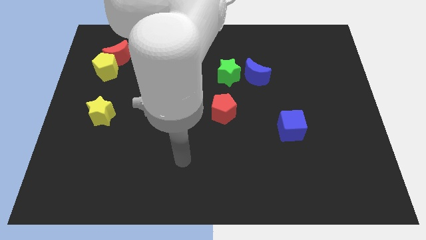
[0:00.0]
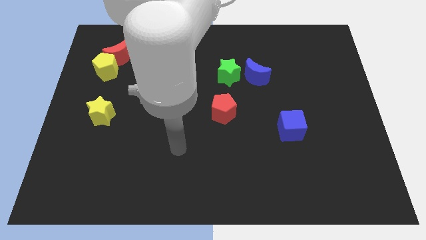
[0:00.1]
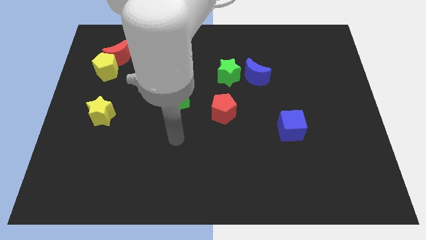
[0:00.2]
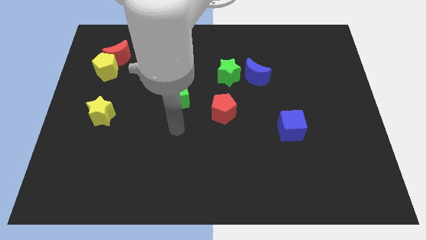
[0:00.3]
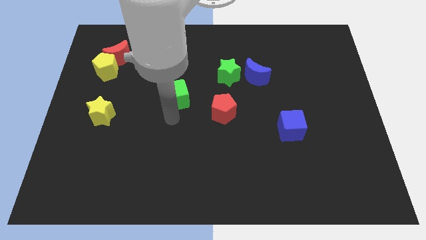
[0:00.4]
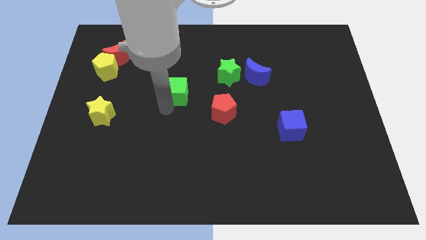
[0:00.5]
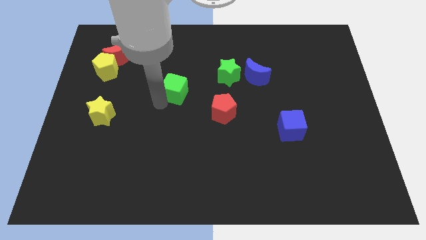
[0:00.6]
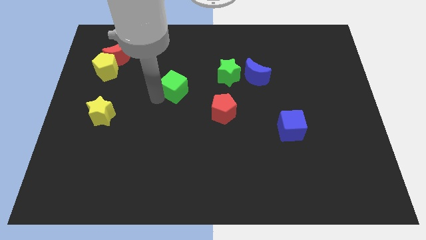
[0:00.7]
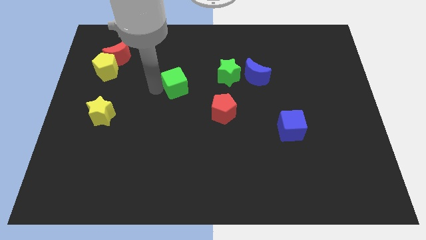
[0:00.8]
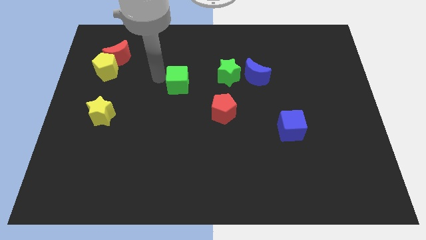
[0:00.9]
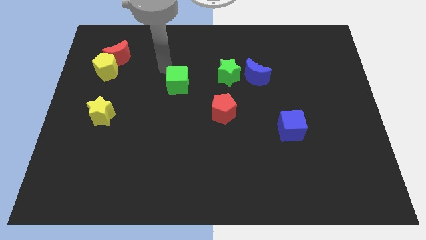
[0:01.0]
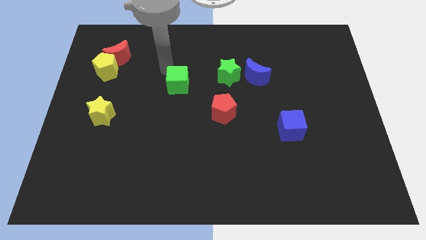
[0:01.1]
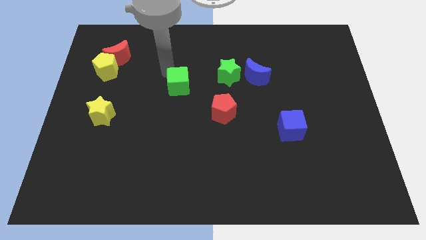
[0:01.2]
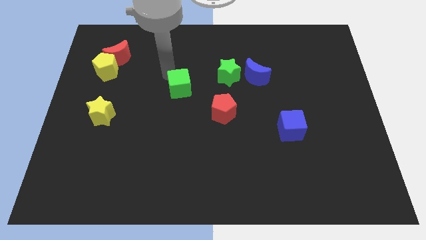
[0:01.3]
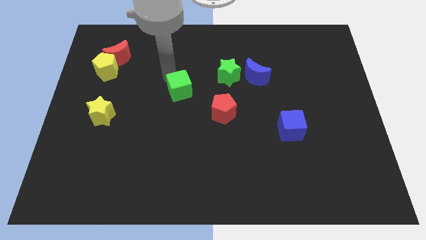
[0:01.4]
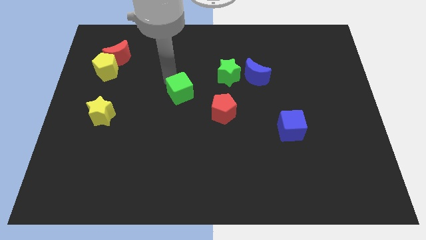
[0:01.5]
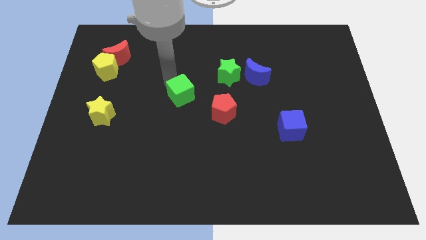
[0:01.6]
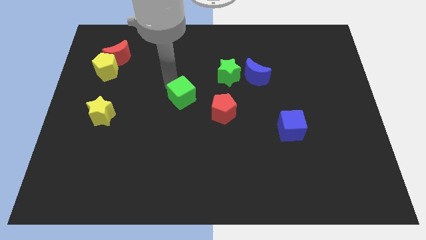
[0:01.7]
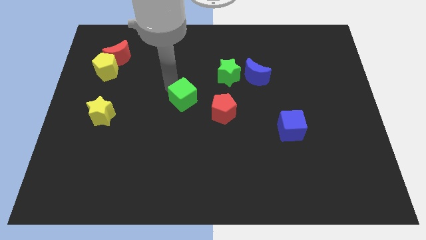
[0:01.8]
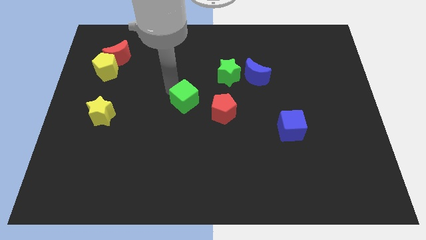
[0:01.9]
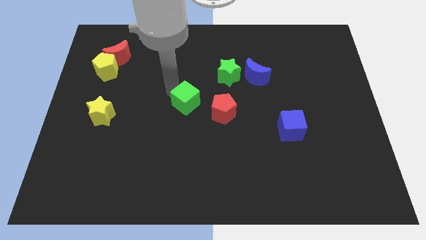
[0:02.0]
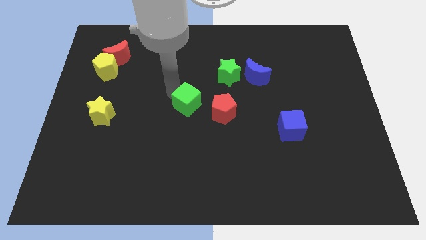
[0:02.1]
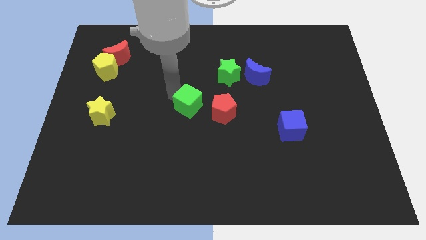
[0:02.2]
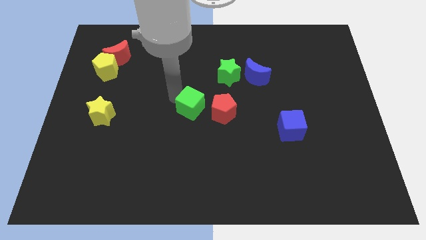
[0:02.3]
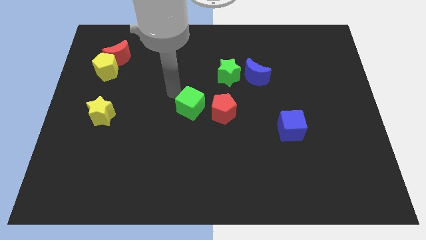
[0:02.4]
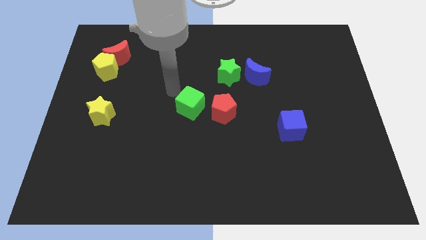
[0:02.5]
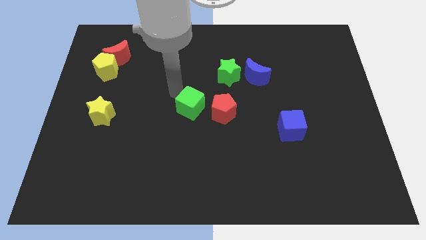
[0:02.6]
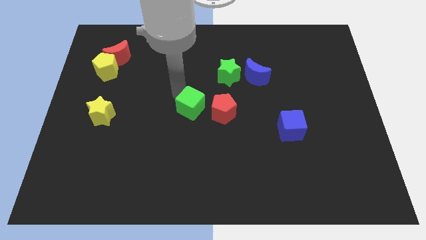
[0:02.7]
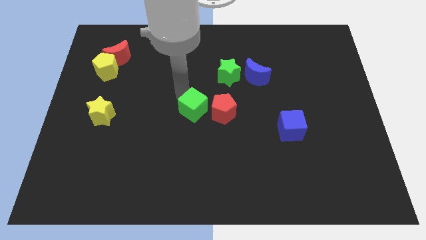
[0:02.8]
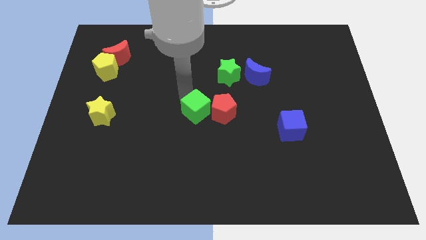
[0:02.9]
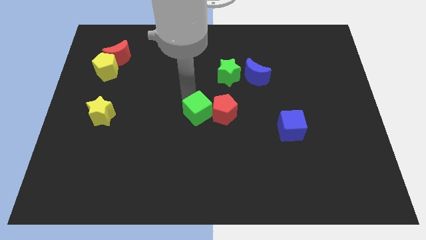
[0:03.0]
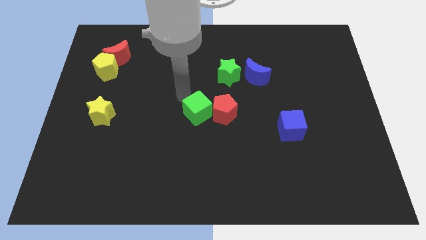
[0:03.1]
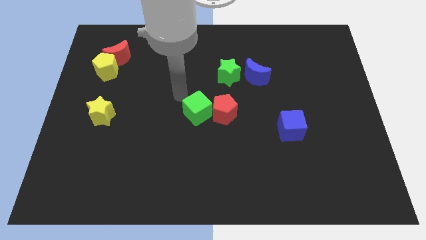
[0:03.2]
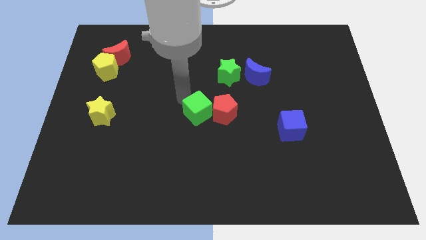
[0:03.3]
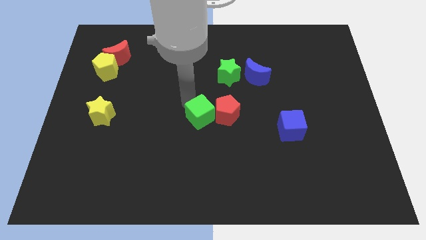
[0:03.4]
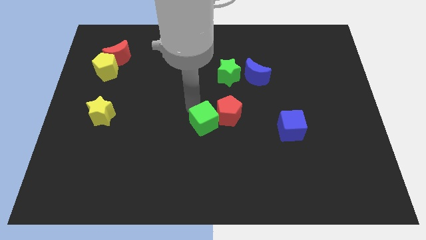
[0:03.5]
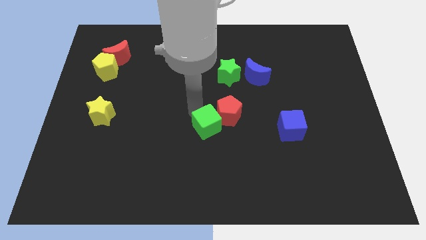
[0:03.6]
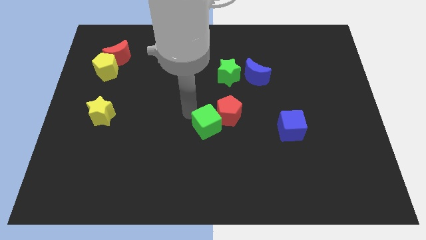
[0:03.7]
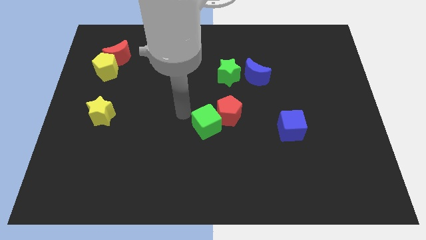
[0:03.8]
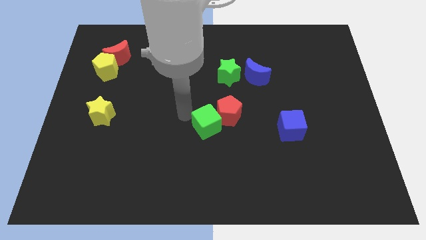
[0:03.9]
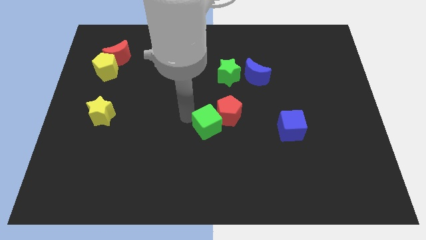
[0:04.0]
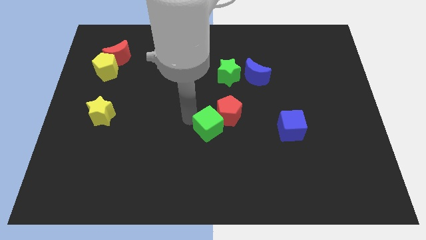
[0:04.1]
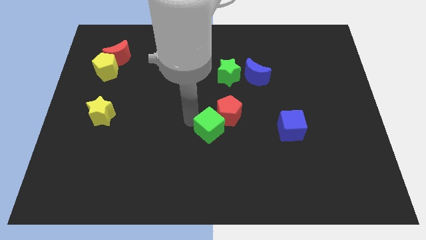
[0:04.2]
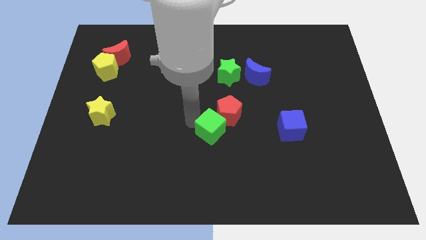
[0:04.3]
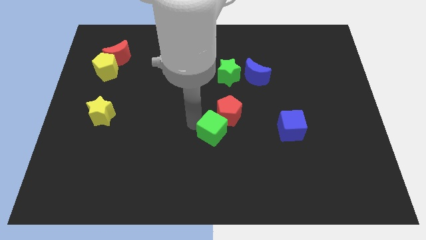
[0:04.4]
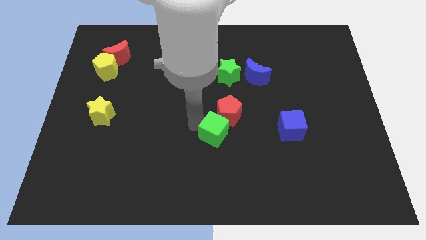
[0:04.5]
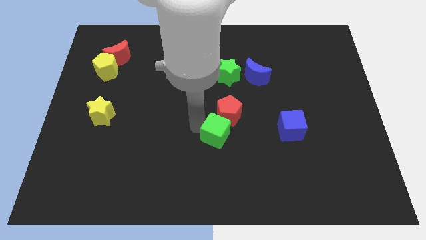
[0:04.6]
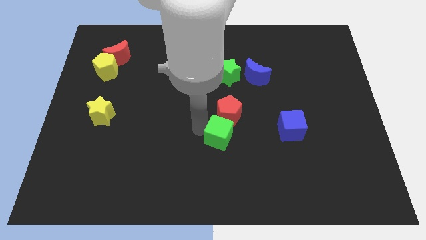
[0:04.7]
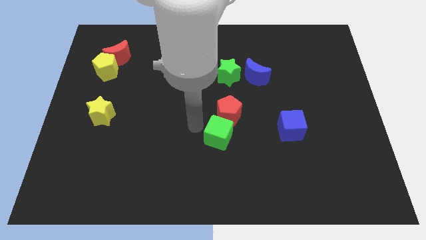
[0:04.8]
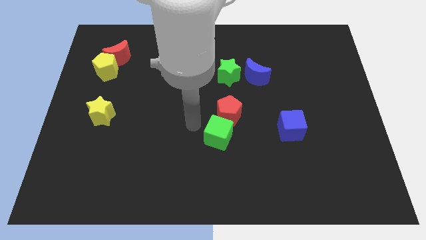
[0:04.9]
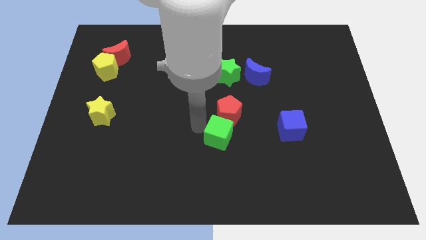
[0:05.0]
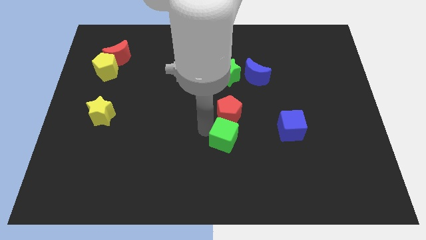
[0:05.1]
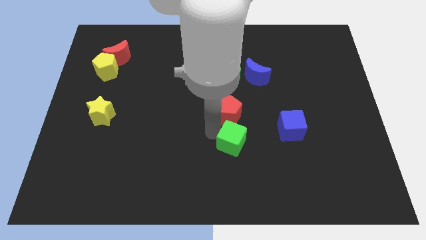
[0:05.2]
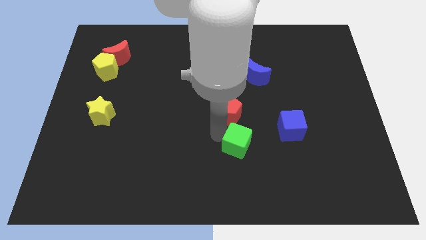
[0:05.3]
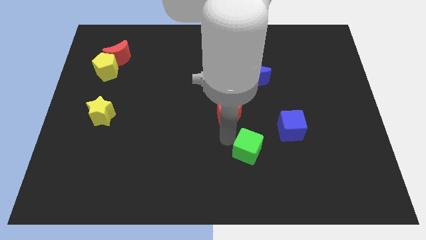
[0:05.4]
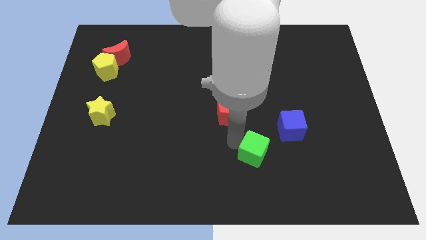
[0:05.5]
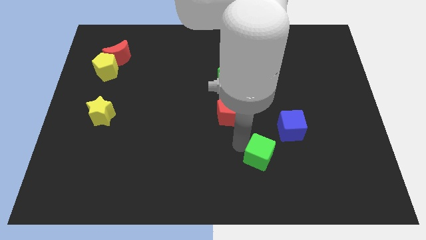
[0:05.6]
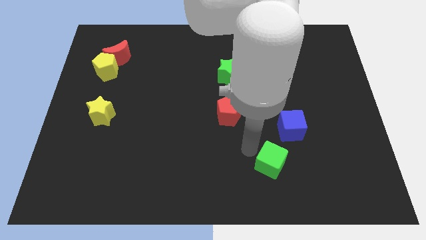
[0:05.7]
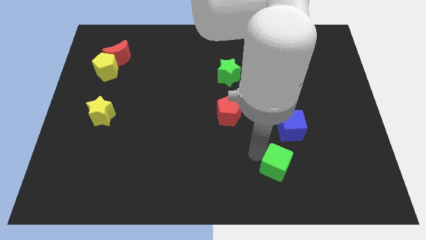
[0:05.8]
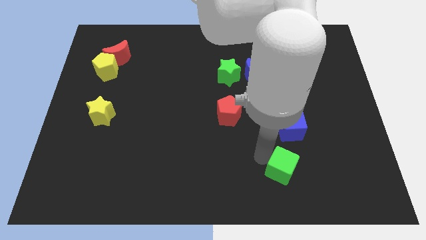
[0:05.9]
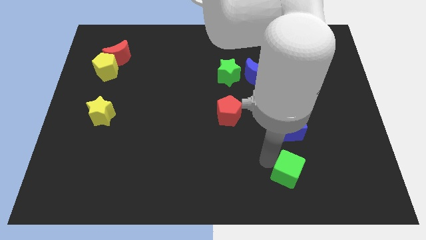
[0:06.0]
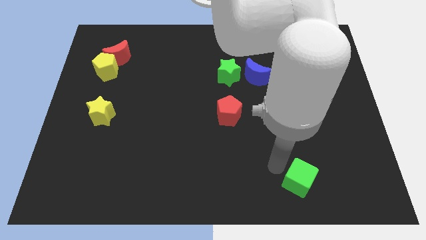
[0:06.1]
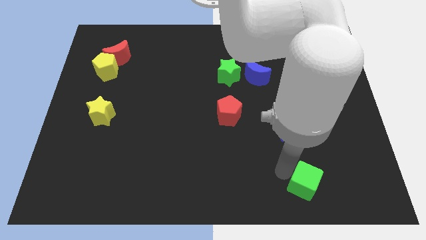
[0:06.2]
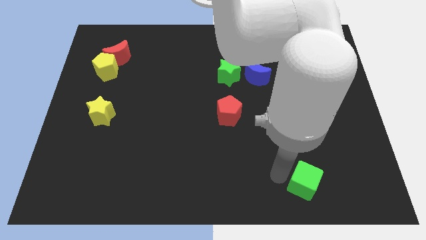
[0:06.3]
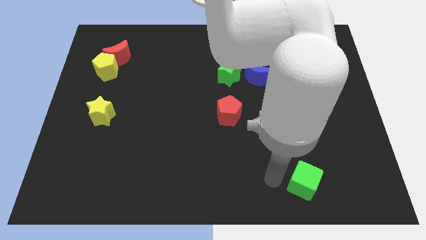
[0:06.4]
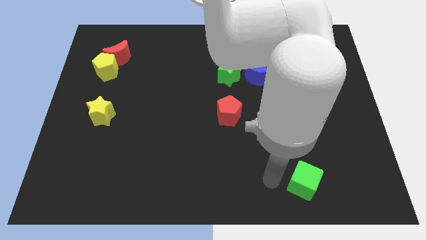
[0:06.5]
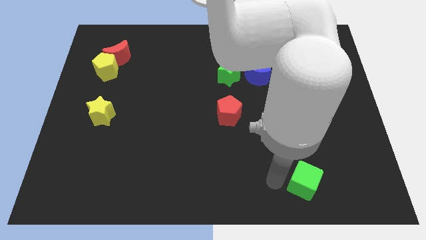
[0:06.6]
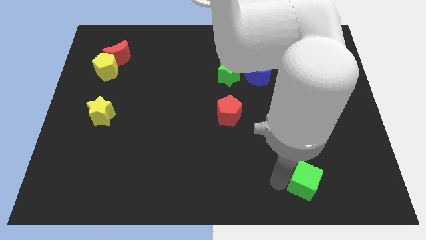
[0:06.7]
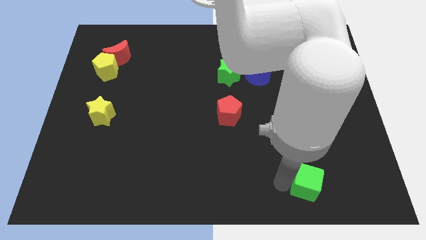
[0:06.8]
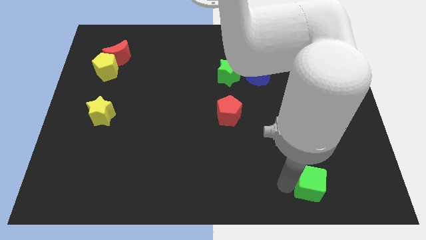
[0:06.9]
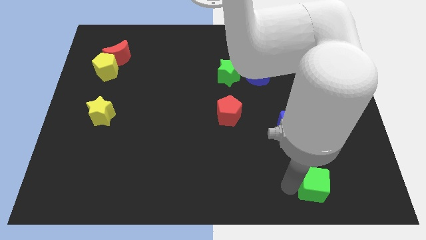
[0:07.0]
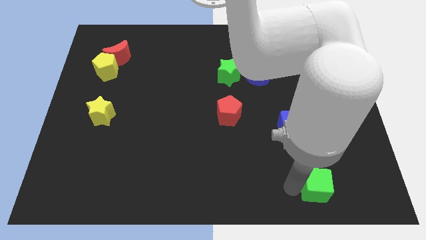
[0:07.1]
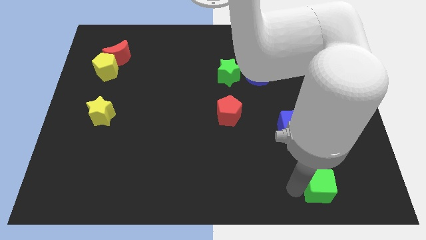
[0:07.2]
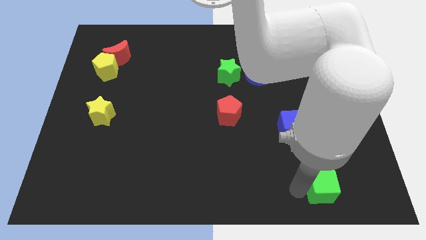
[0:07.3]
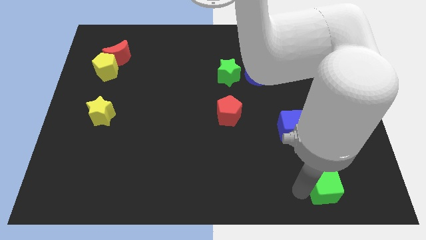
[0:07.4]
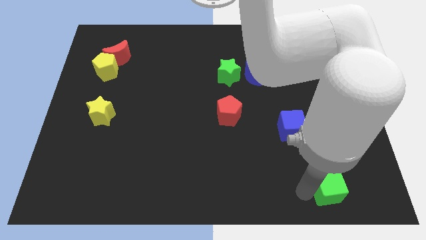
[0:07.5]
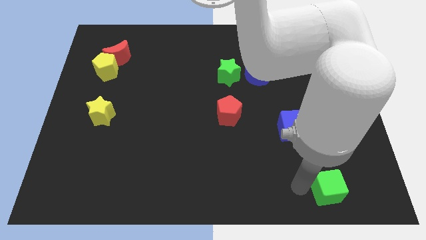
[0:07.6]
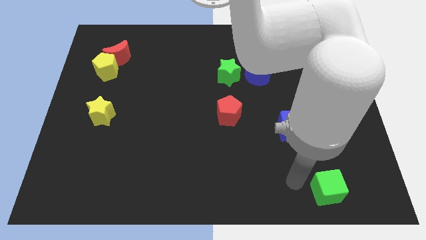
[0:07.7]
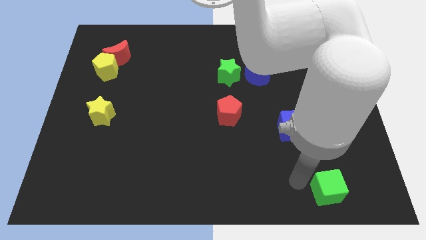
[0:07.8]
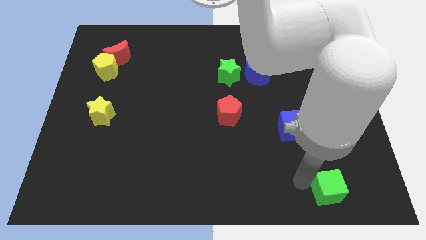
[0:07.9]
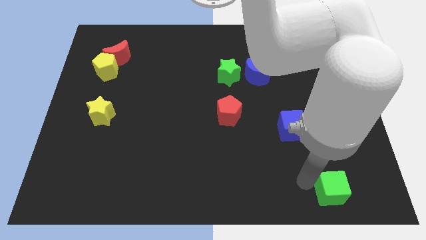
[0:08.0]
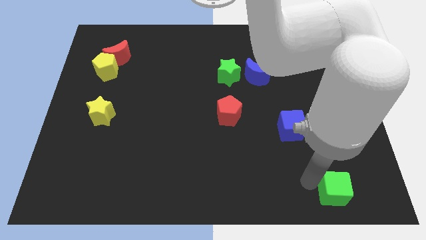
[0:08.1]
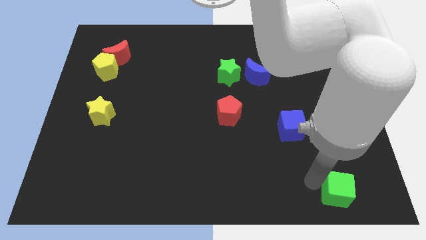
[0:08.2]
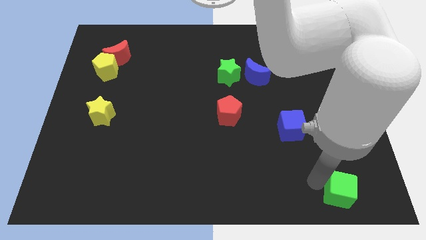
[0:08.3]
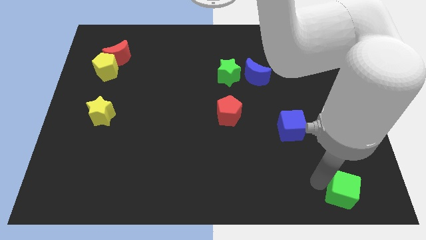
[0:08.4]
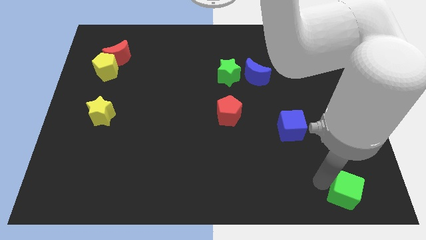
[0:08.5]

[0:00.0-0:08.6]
move the green cube to the bottom right
